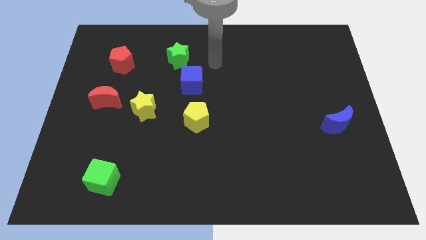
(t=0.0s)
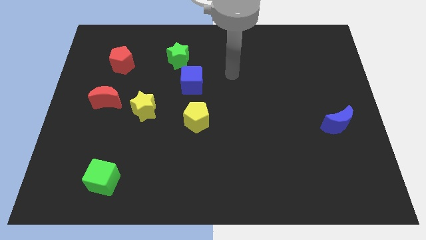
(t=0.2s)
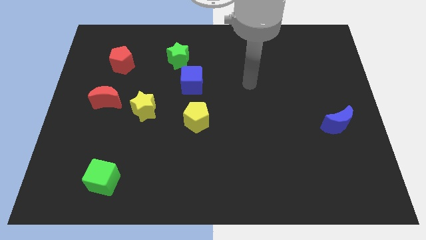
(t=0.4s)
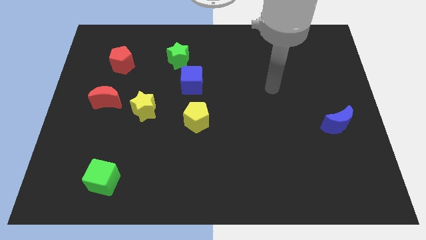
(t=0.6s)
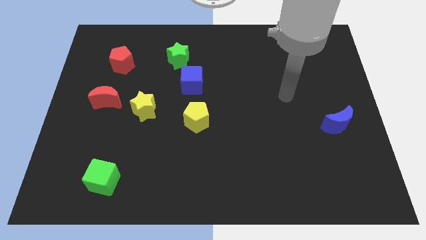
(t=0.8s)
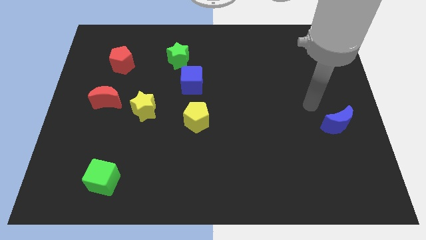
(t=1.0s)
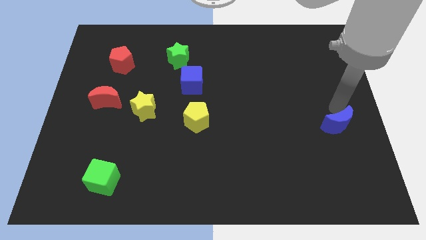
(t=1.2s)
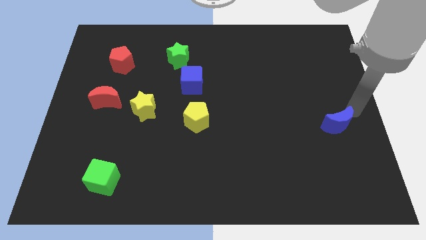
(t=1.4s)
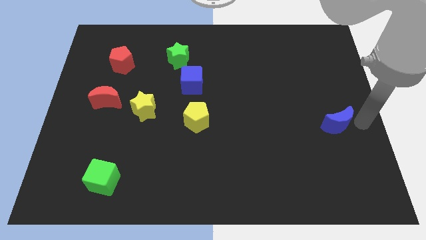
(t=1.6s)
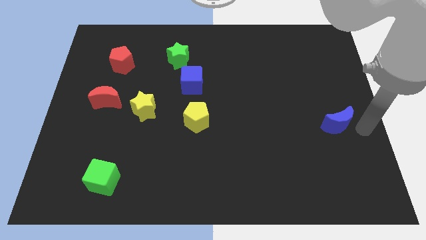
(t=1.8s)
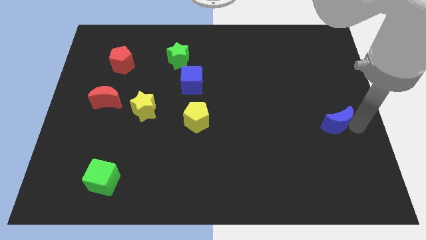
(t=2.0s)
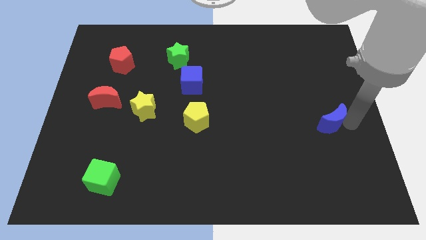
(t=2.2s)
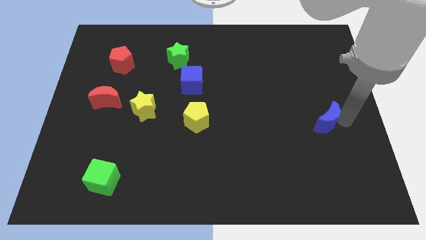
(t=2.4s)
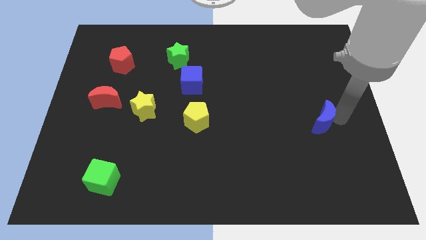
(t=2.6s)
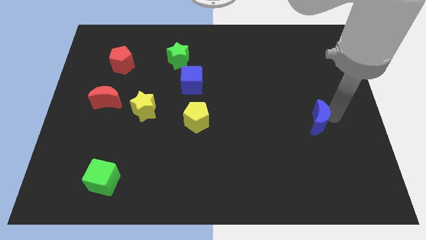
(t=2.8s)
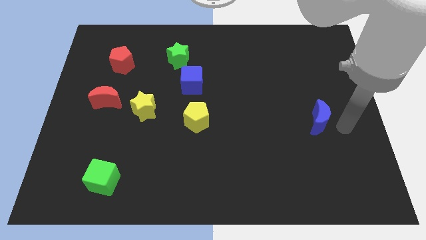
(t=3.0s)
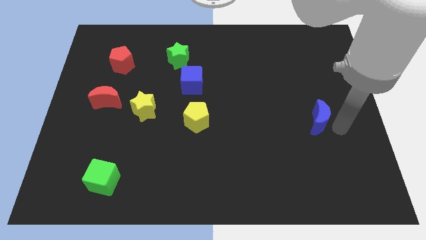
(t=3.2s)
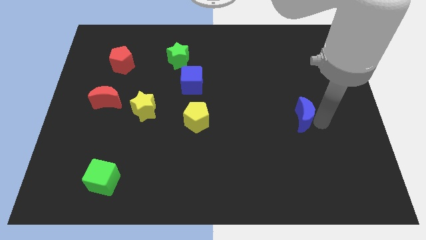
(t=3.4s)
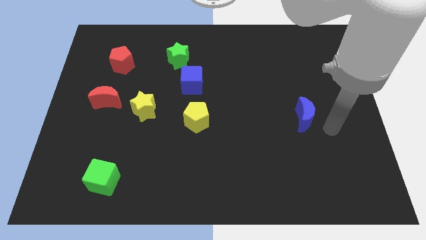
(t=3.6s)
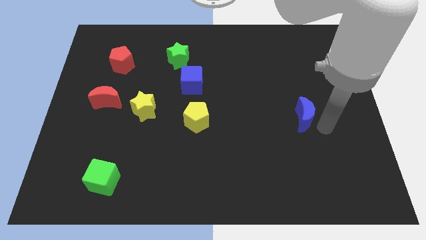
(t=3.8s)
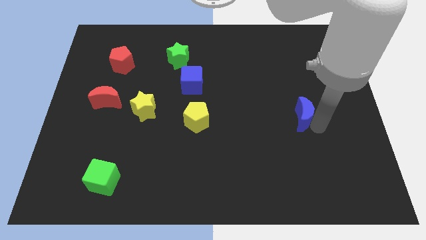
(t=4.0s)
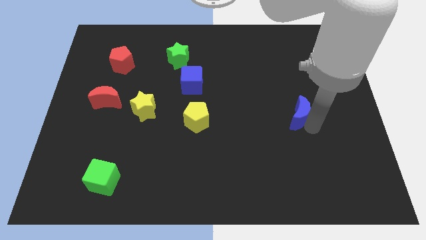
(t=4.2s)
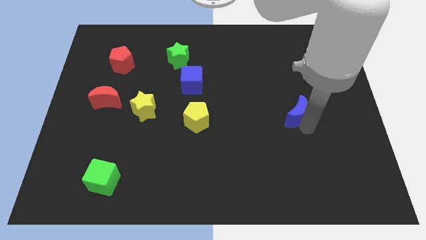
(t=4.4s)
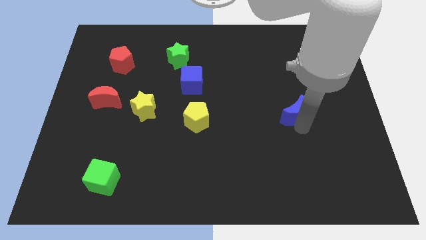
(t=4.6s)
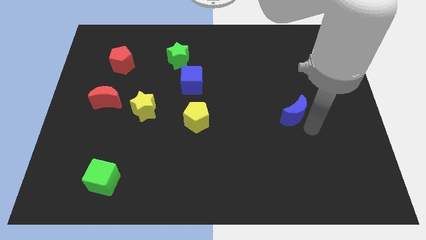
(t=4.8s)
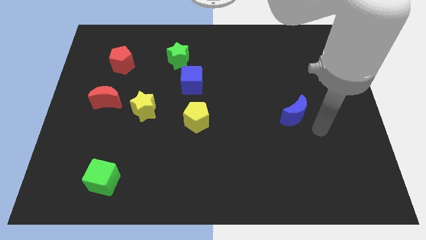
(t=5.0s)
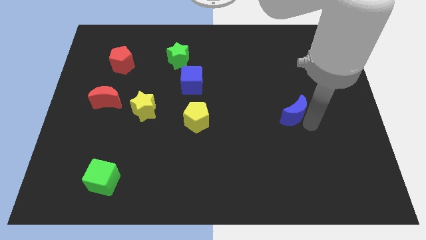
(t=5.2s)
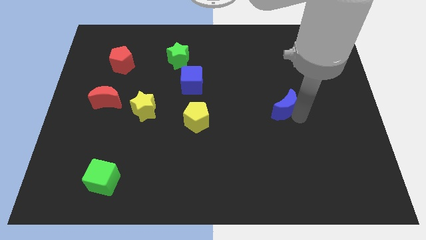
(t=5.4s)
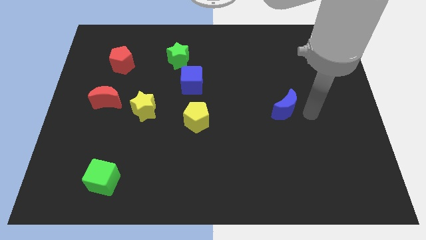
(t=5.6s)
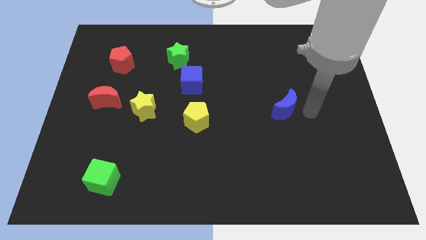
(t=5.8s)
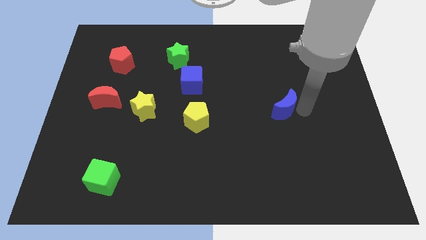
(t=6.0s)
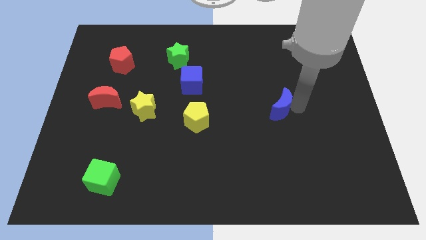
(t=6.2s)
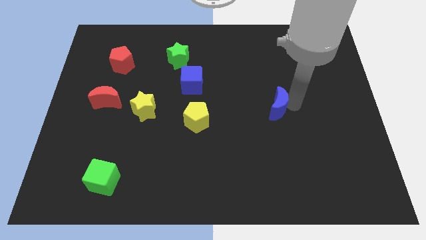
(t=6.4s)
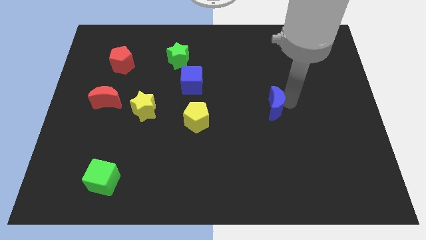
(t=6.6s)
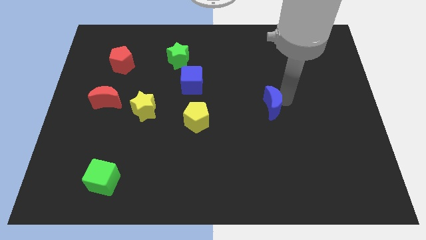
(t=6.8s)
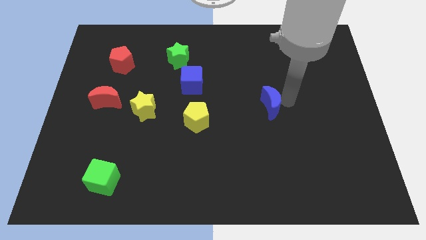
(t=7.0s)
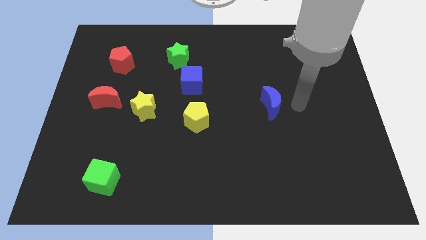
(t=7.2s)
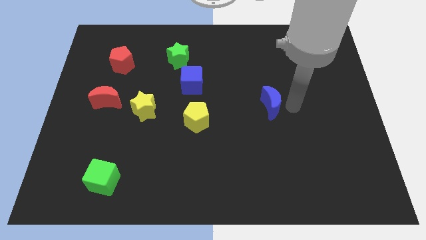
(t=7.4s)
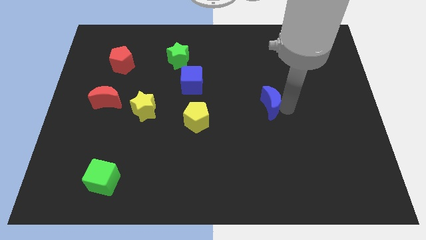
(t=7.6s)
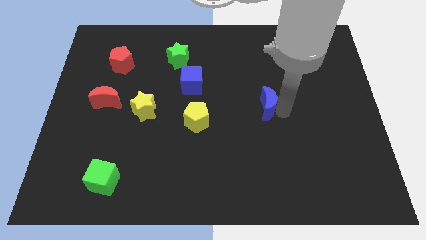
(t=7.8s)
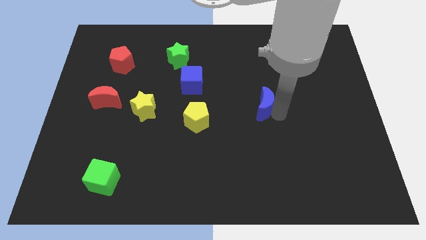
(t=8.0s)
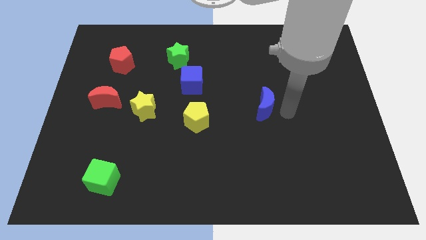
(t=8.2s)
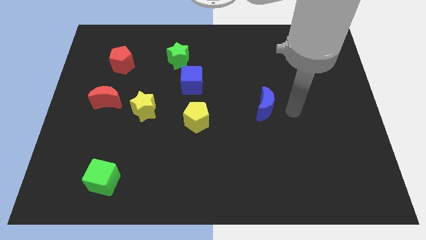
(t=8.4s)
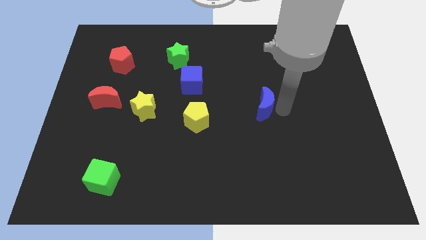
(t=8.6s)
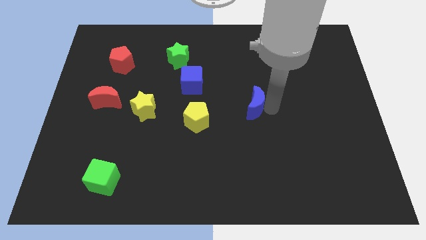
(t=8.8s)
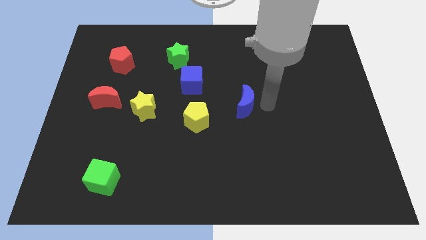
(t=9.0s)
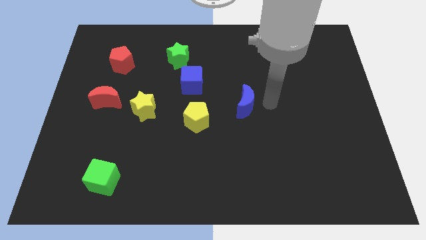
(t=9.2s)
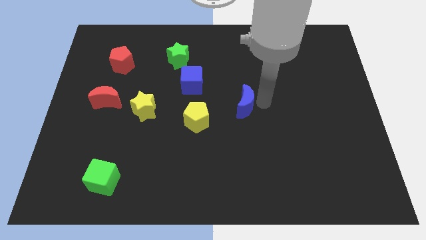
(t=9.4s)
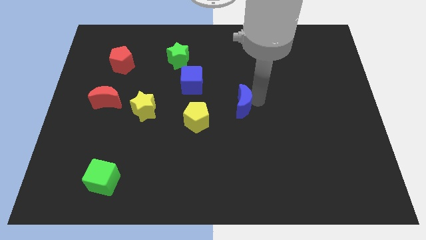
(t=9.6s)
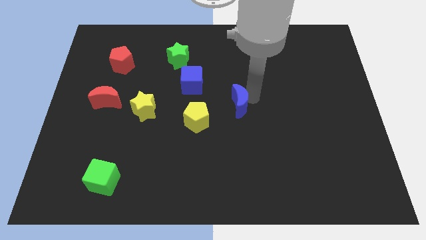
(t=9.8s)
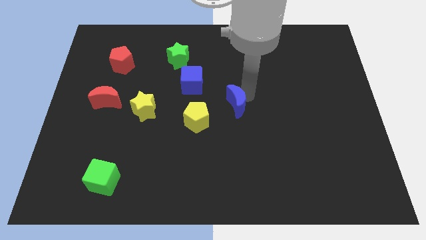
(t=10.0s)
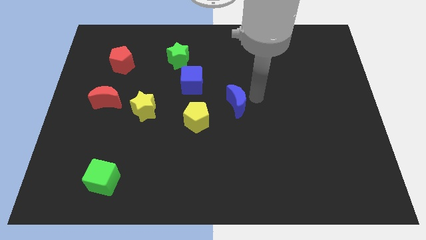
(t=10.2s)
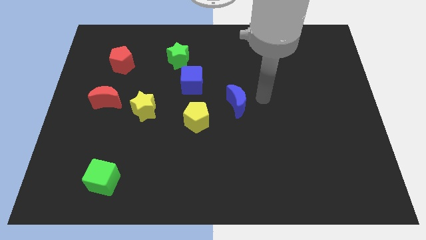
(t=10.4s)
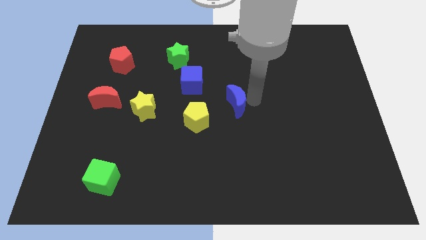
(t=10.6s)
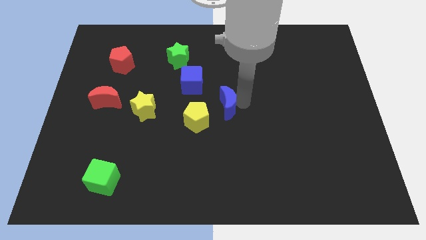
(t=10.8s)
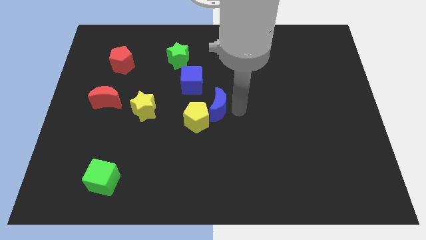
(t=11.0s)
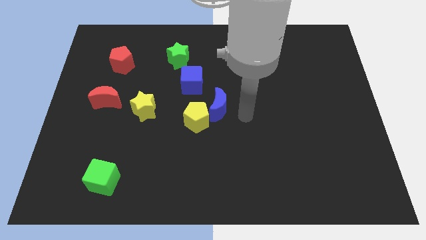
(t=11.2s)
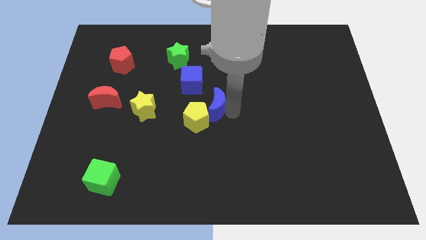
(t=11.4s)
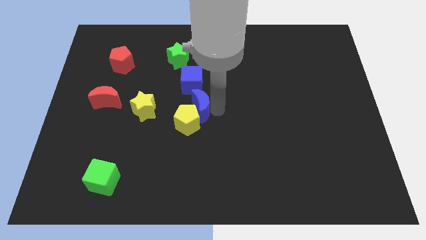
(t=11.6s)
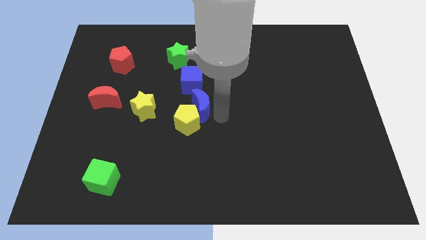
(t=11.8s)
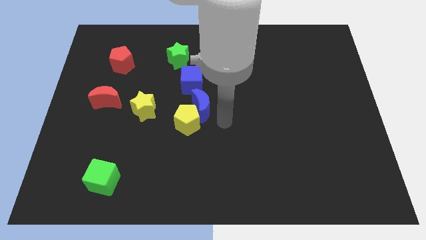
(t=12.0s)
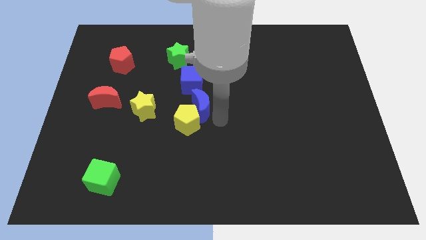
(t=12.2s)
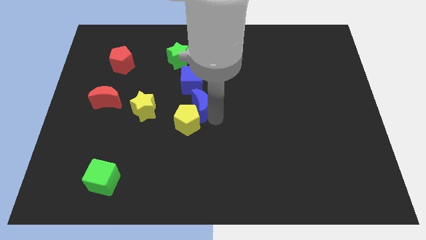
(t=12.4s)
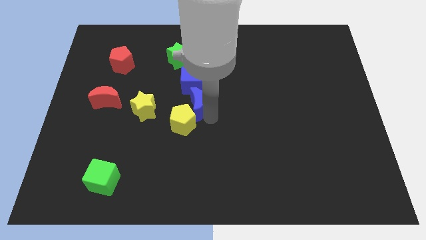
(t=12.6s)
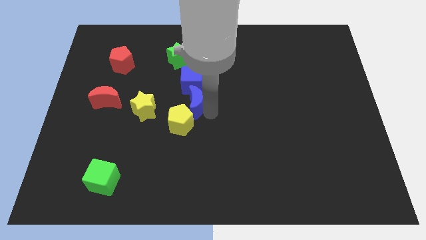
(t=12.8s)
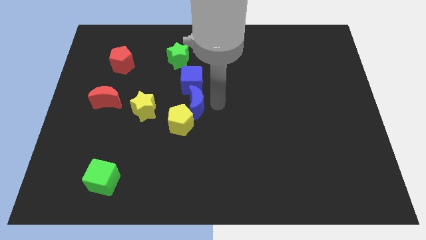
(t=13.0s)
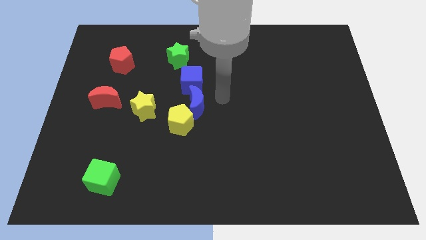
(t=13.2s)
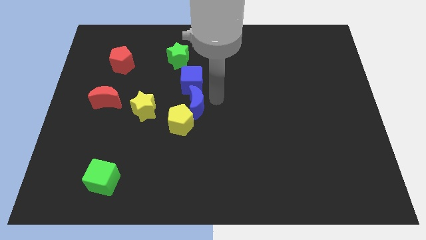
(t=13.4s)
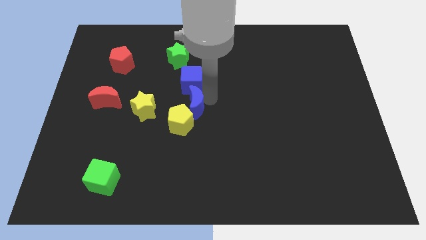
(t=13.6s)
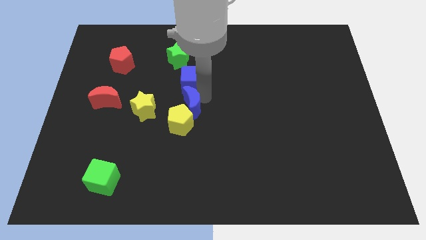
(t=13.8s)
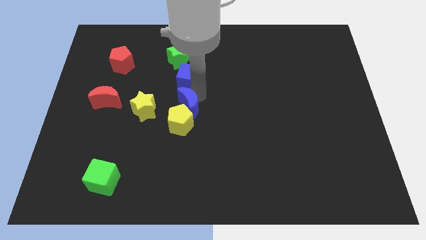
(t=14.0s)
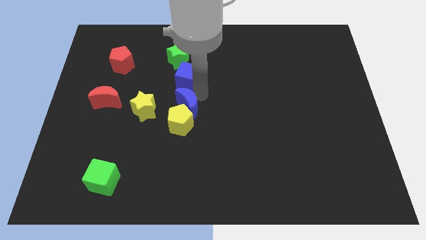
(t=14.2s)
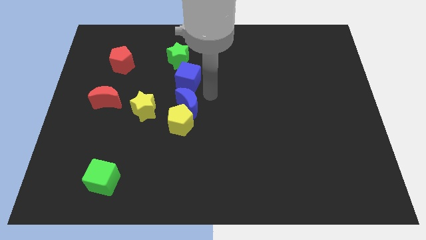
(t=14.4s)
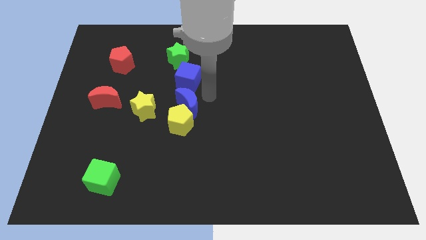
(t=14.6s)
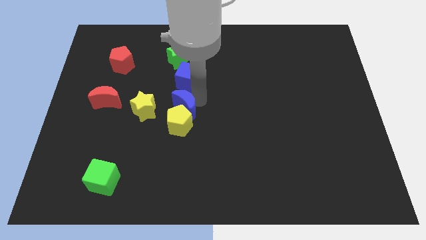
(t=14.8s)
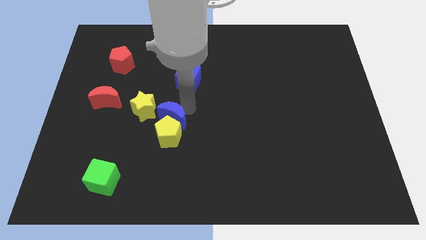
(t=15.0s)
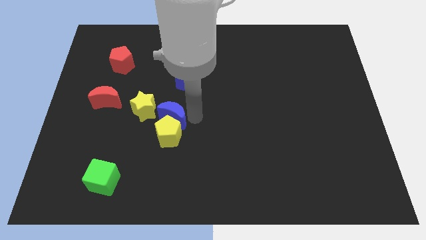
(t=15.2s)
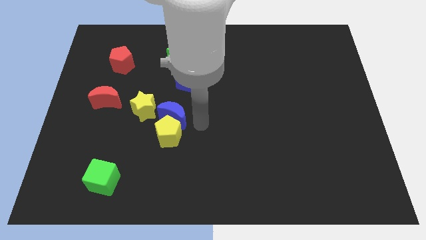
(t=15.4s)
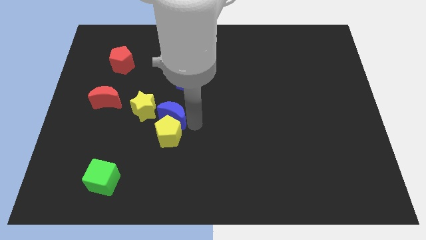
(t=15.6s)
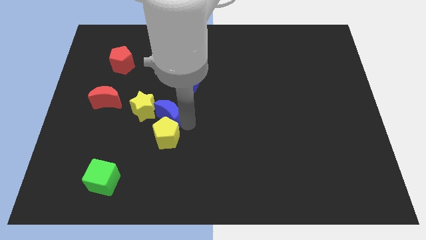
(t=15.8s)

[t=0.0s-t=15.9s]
push the blue moon next to the yellow star

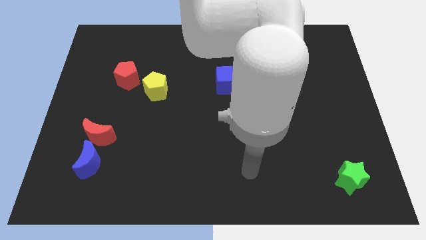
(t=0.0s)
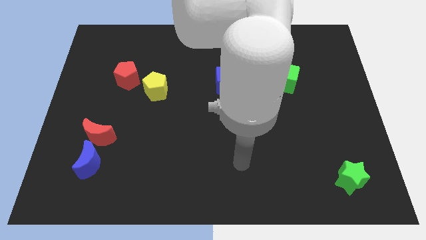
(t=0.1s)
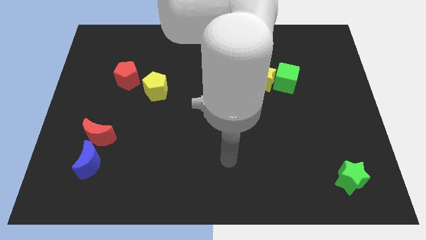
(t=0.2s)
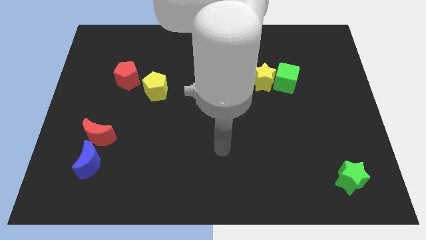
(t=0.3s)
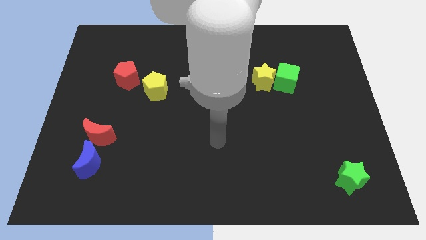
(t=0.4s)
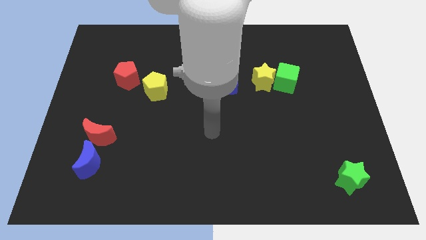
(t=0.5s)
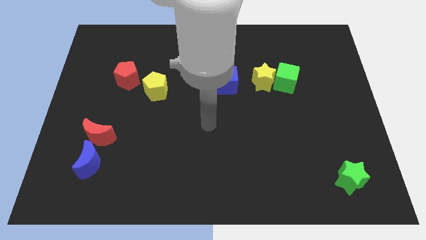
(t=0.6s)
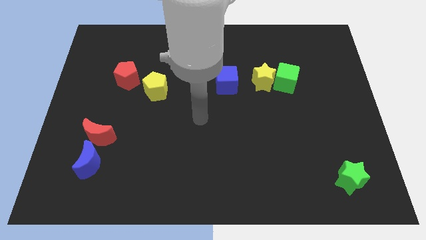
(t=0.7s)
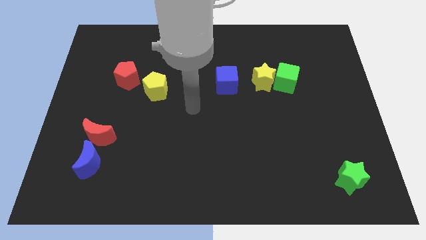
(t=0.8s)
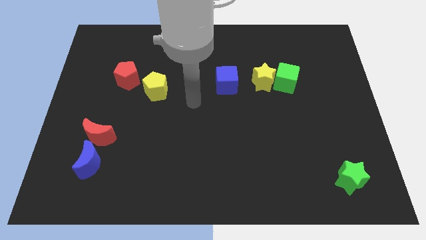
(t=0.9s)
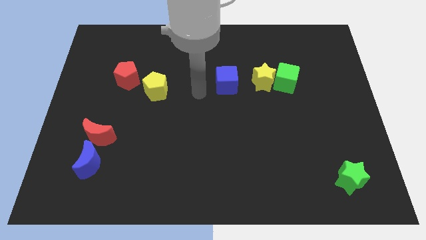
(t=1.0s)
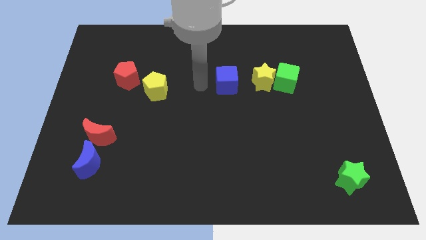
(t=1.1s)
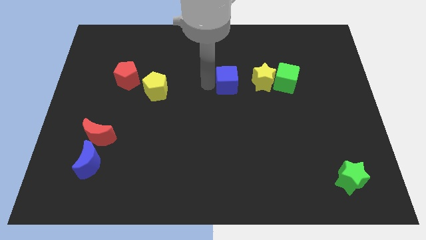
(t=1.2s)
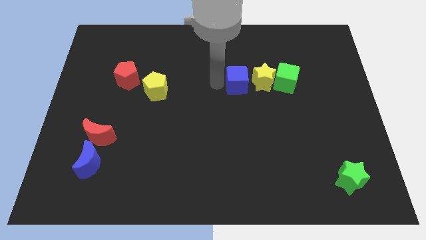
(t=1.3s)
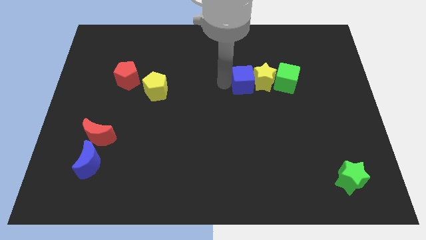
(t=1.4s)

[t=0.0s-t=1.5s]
push the blue cube next to the yellow star
